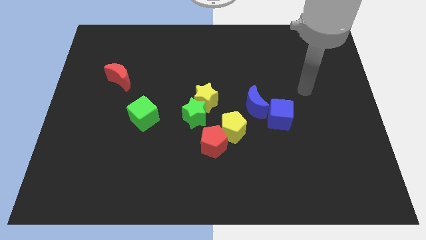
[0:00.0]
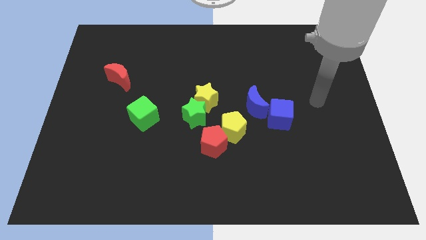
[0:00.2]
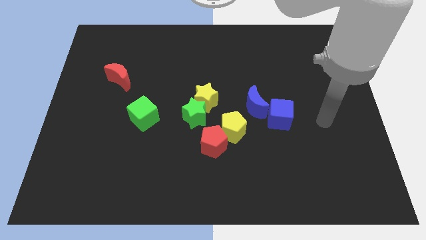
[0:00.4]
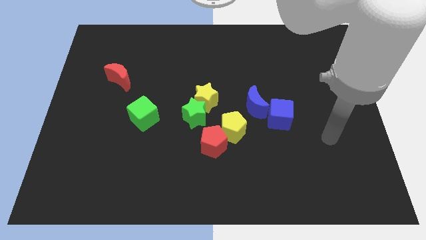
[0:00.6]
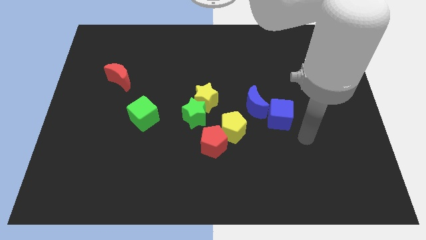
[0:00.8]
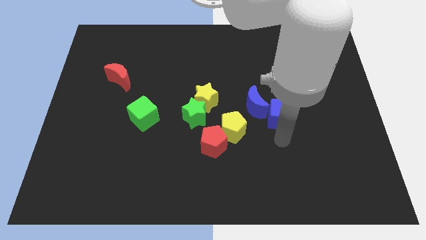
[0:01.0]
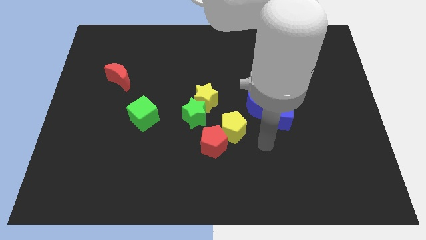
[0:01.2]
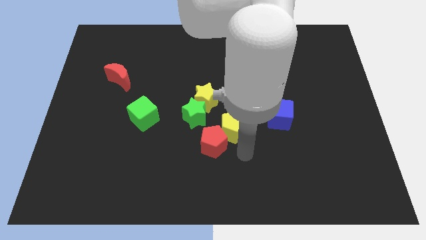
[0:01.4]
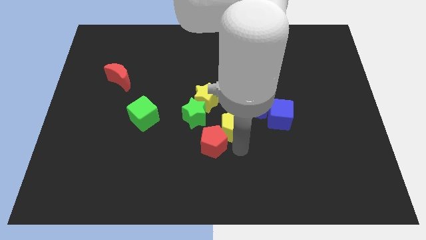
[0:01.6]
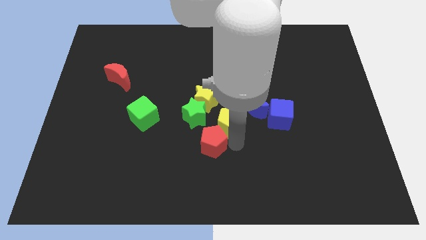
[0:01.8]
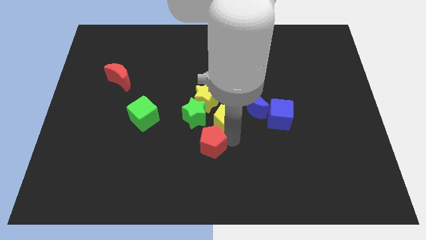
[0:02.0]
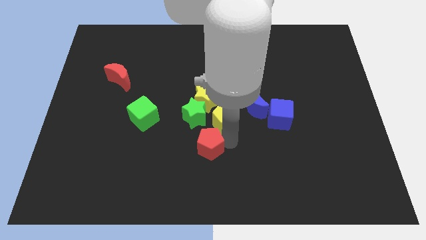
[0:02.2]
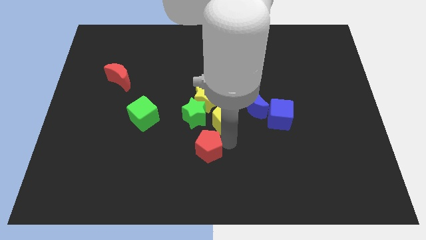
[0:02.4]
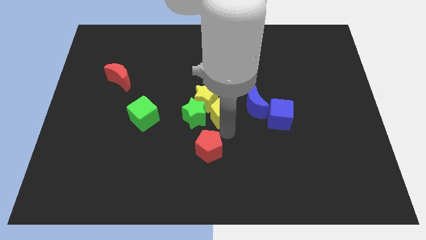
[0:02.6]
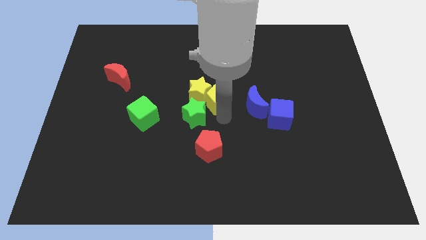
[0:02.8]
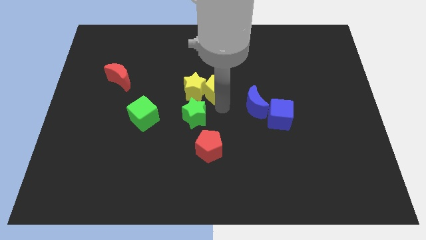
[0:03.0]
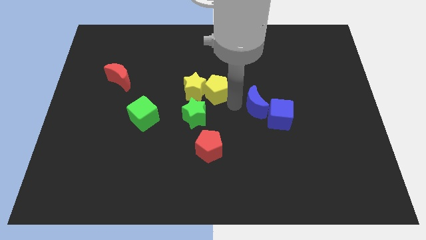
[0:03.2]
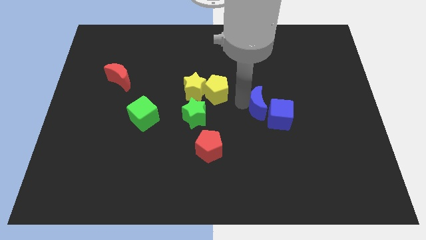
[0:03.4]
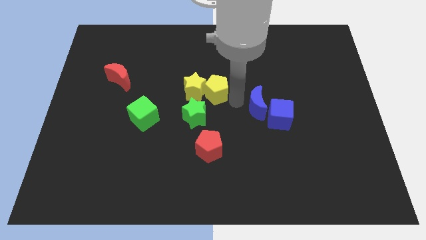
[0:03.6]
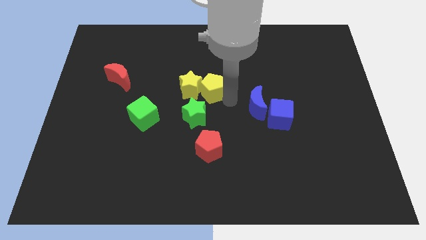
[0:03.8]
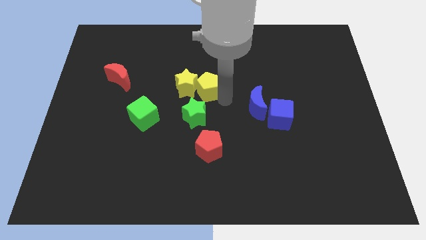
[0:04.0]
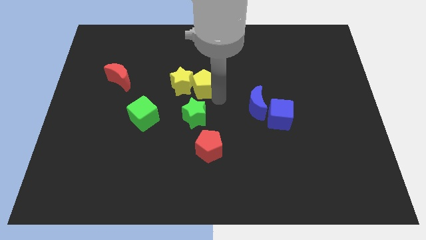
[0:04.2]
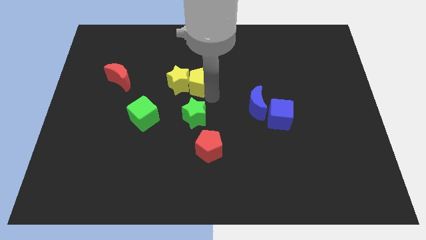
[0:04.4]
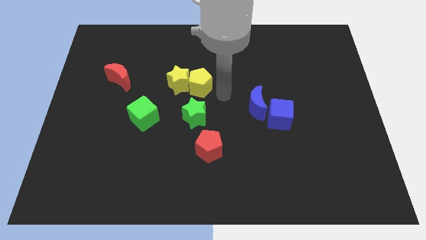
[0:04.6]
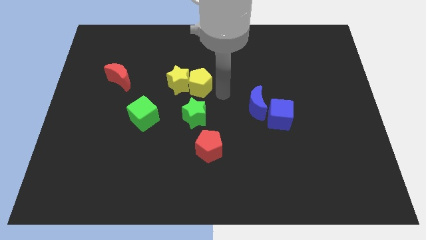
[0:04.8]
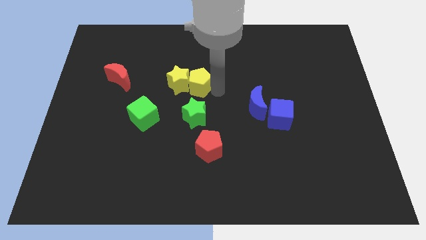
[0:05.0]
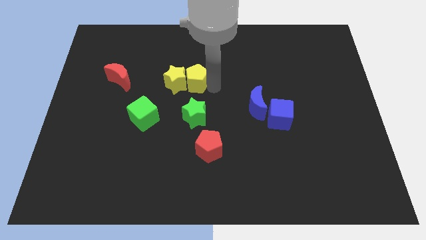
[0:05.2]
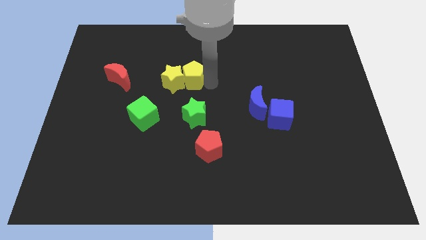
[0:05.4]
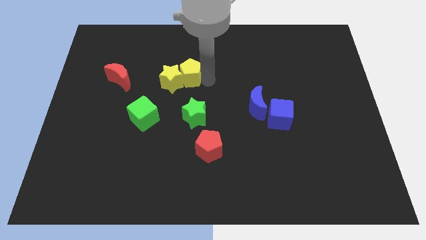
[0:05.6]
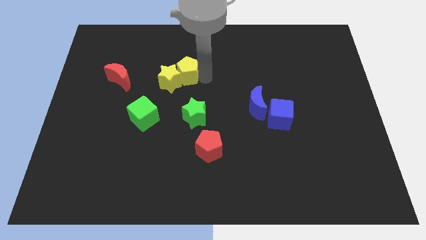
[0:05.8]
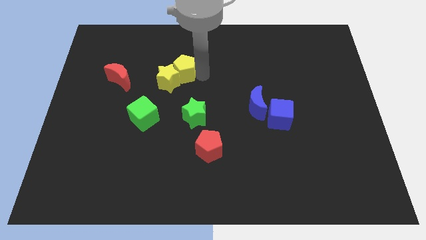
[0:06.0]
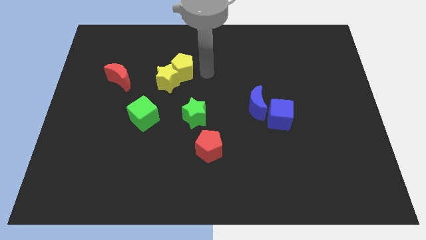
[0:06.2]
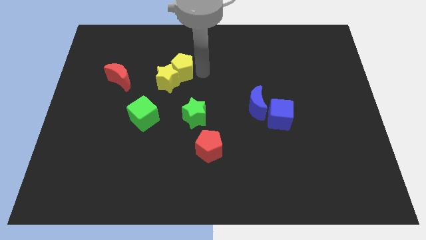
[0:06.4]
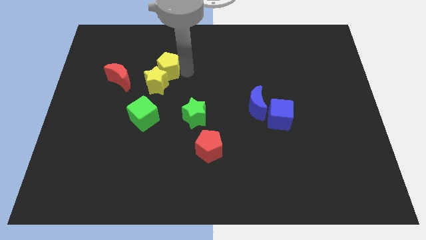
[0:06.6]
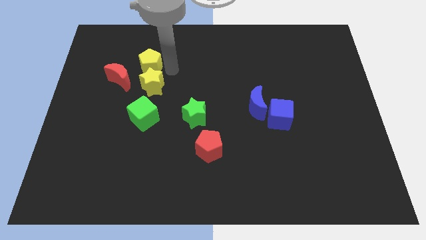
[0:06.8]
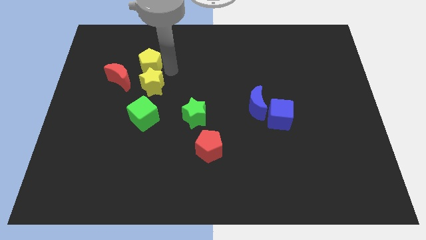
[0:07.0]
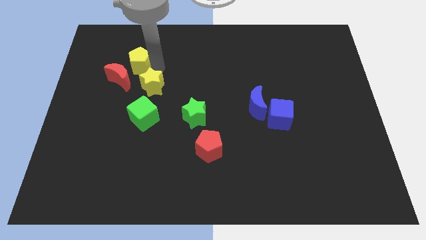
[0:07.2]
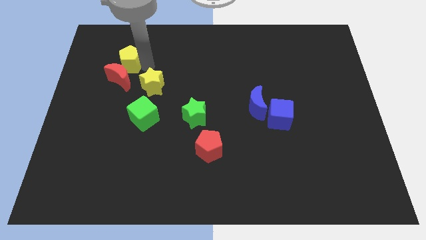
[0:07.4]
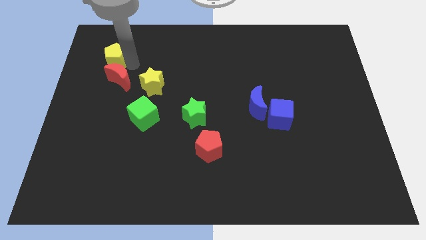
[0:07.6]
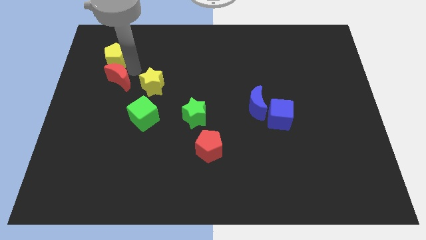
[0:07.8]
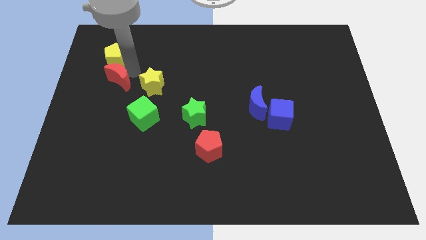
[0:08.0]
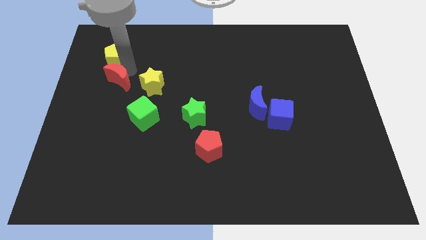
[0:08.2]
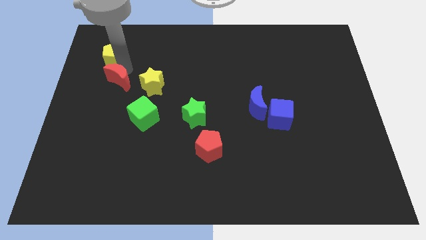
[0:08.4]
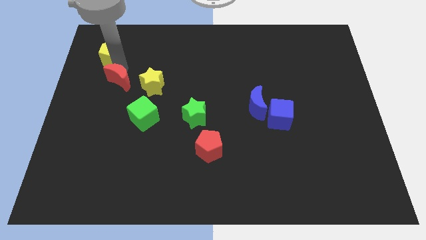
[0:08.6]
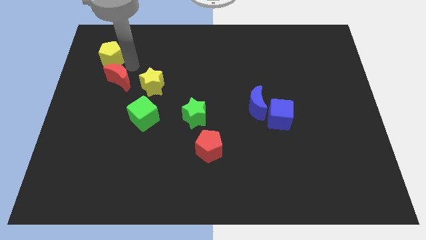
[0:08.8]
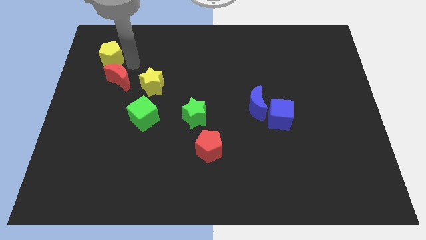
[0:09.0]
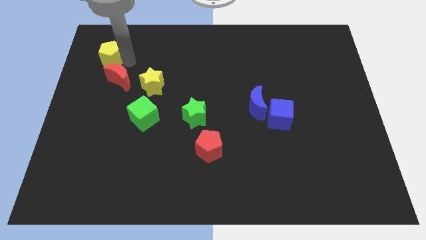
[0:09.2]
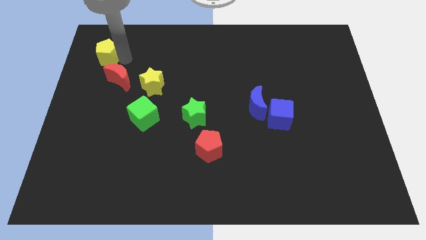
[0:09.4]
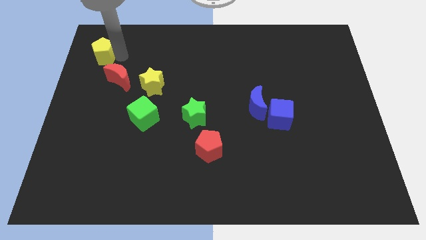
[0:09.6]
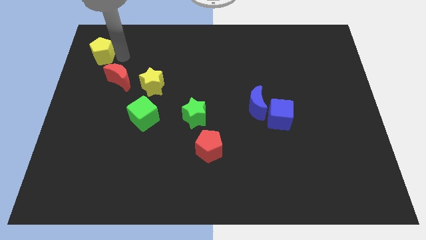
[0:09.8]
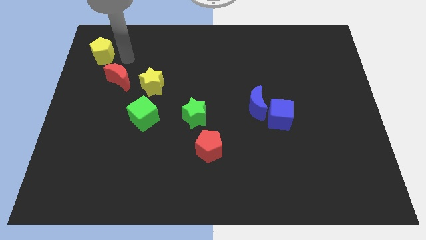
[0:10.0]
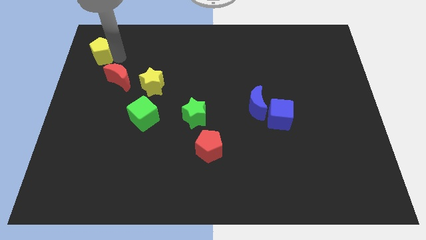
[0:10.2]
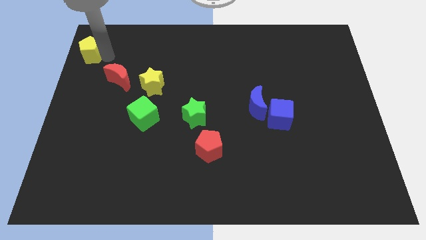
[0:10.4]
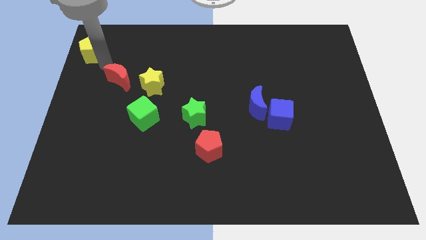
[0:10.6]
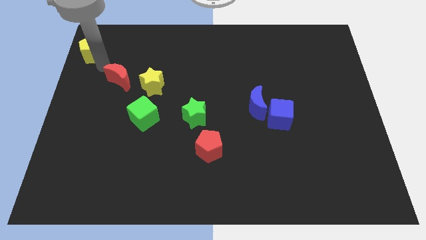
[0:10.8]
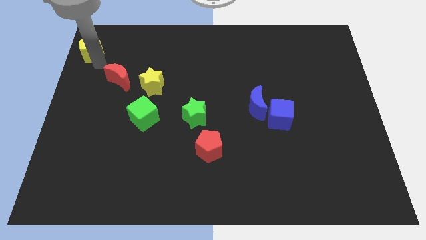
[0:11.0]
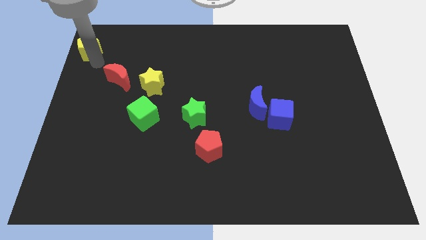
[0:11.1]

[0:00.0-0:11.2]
move the yellow pentagon to the top left of the board

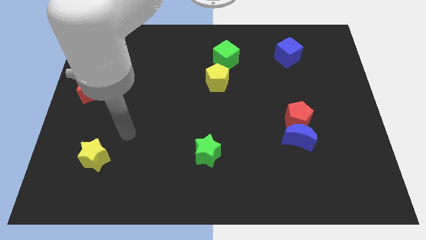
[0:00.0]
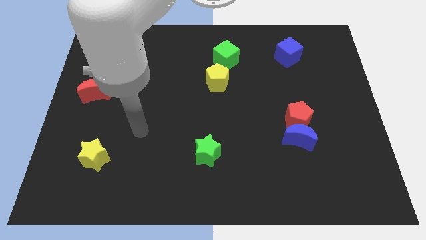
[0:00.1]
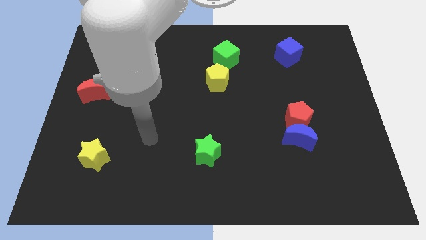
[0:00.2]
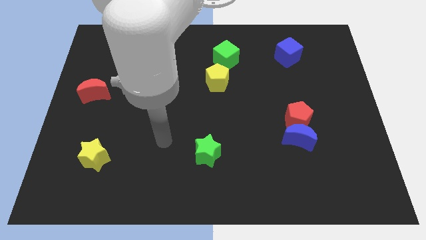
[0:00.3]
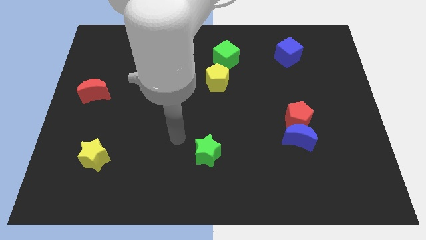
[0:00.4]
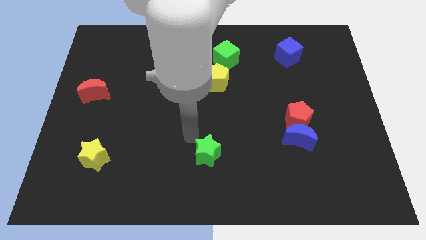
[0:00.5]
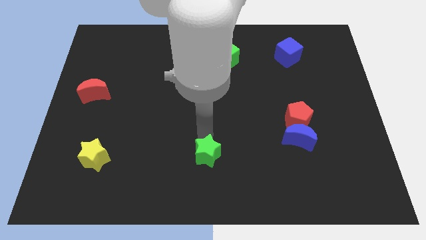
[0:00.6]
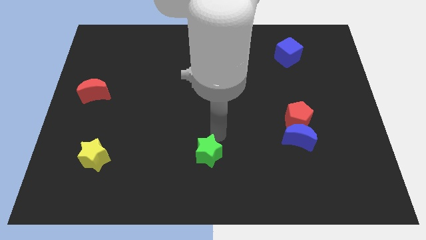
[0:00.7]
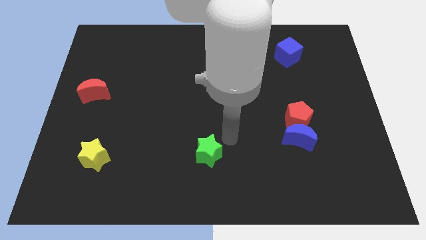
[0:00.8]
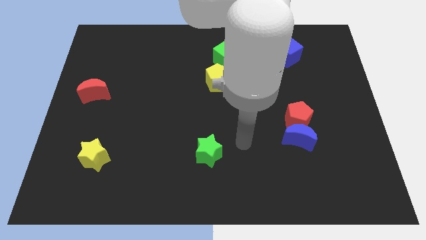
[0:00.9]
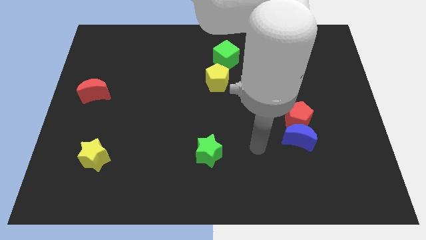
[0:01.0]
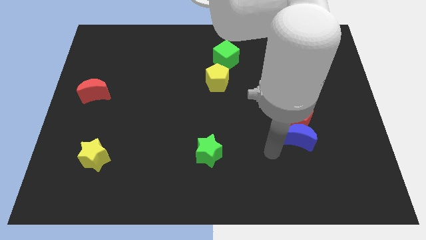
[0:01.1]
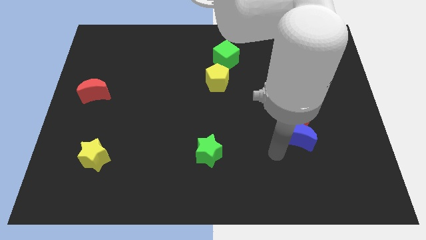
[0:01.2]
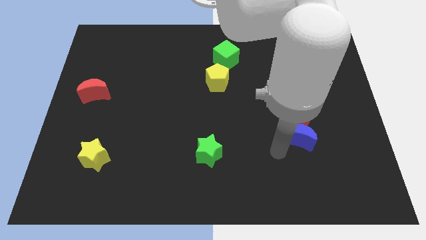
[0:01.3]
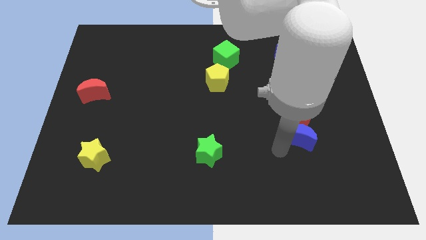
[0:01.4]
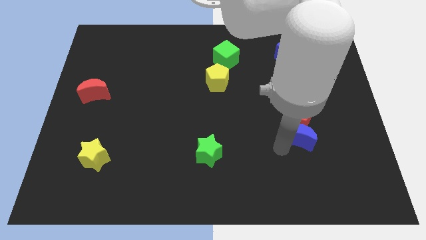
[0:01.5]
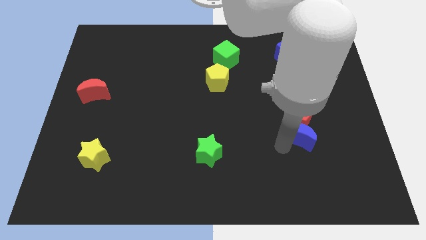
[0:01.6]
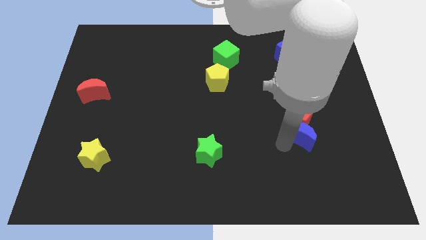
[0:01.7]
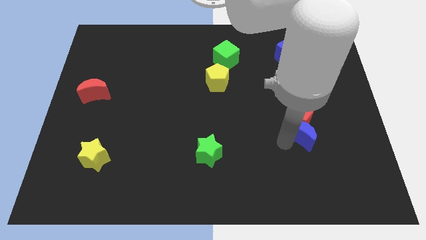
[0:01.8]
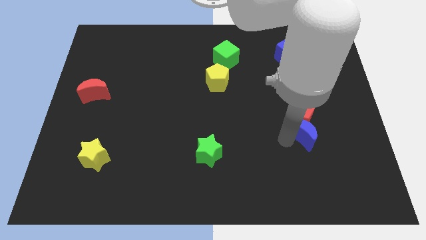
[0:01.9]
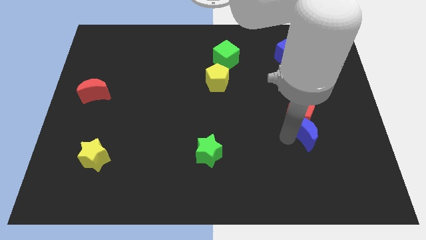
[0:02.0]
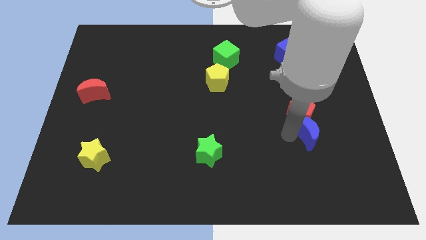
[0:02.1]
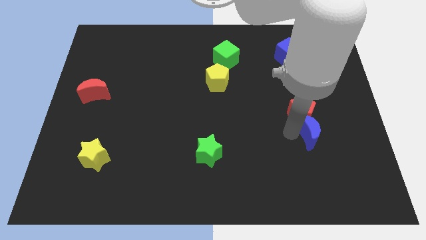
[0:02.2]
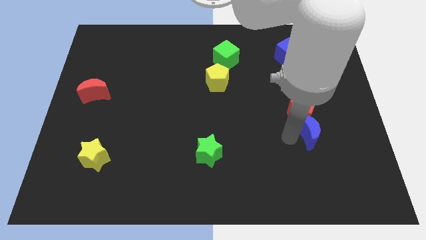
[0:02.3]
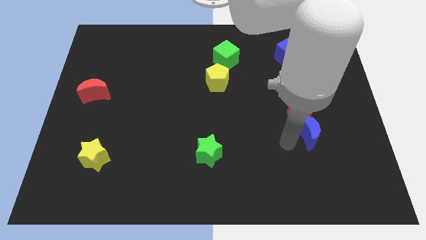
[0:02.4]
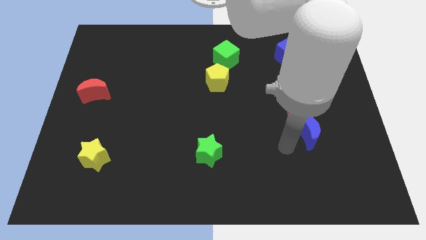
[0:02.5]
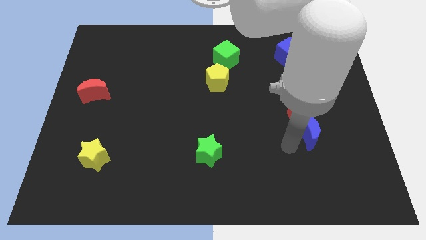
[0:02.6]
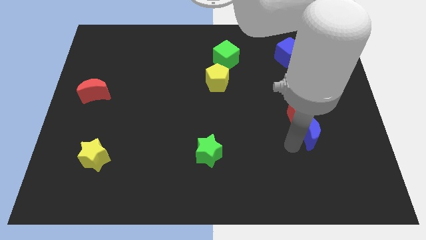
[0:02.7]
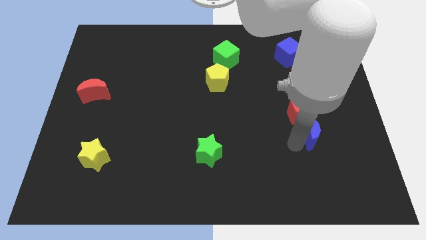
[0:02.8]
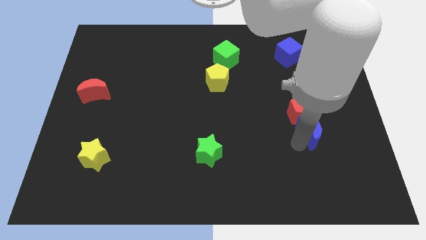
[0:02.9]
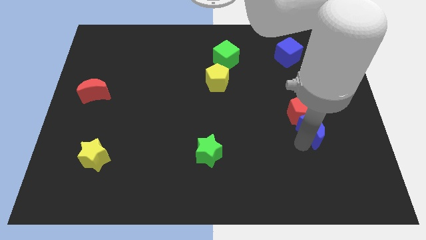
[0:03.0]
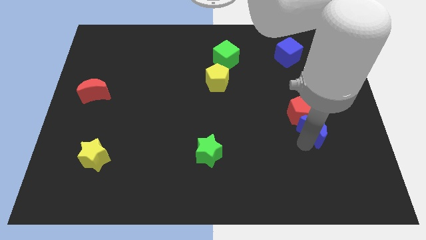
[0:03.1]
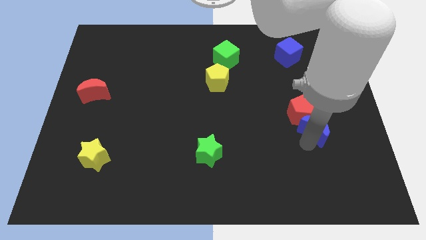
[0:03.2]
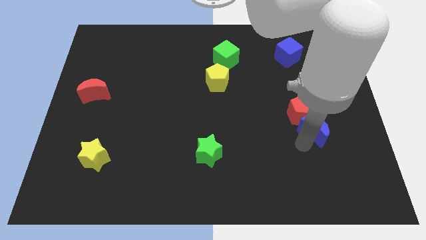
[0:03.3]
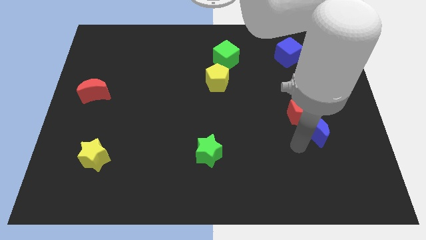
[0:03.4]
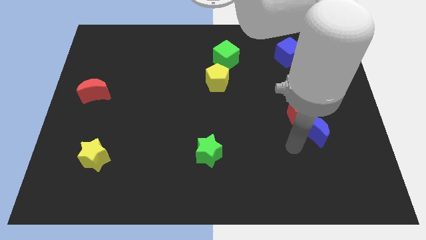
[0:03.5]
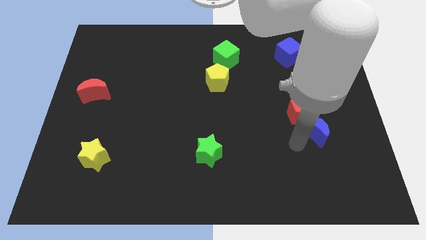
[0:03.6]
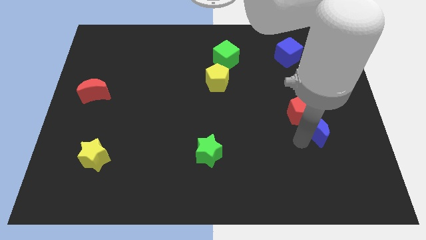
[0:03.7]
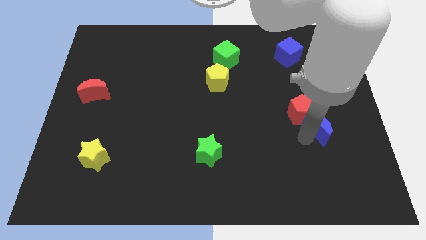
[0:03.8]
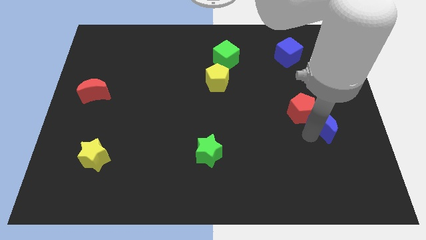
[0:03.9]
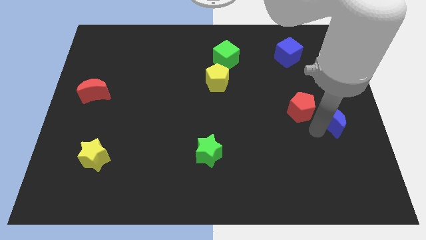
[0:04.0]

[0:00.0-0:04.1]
move the blue moon to the center right
